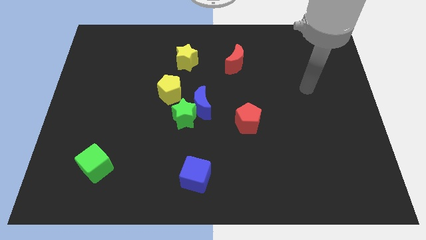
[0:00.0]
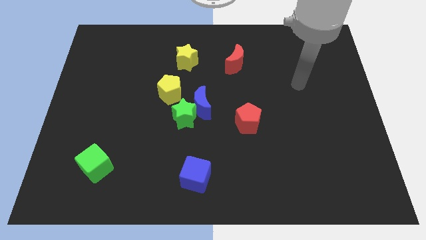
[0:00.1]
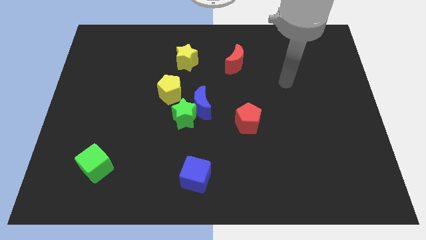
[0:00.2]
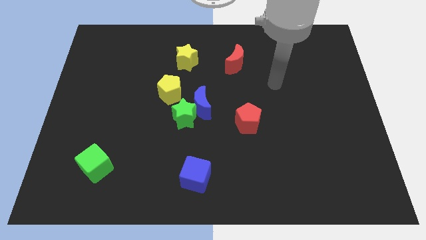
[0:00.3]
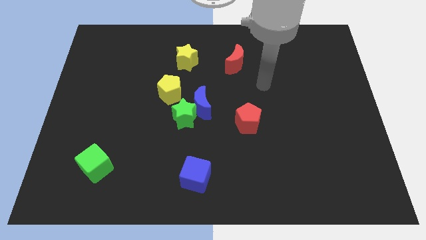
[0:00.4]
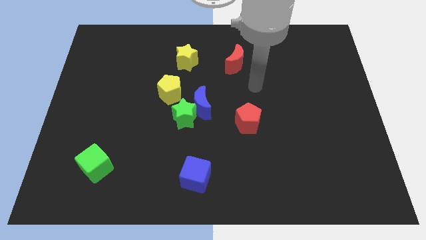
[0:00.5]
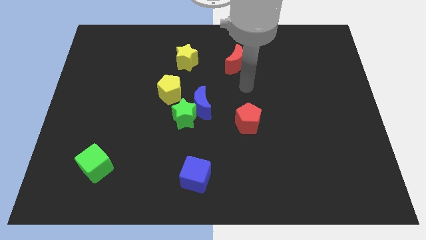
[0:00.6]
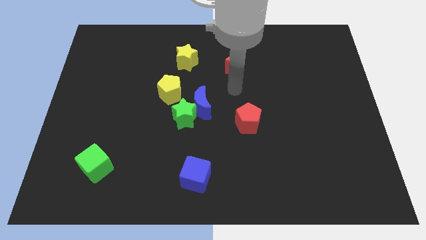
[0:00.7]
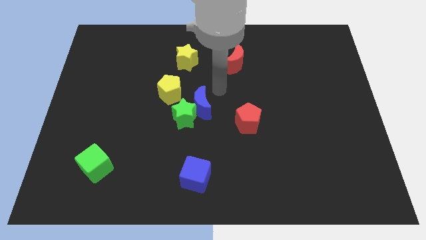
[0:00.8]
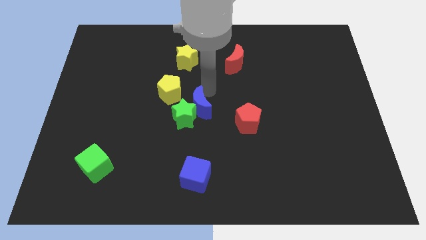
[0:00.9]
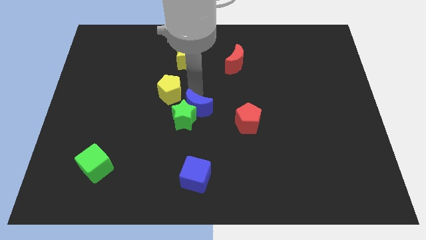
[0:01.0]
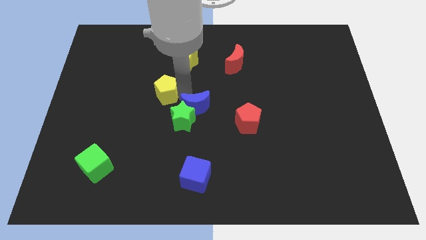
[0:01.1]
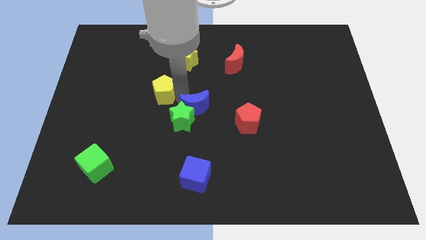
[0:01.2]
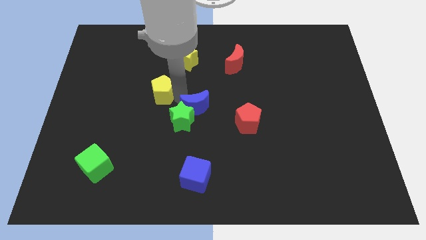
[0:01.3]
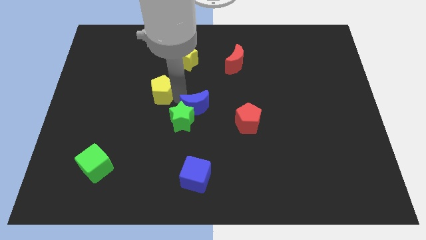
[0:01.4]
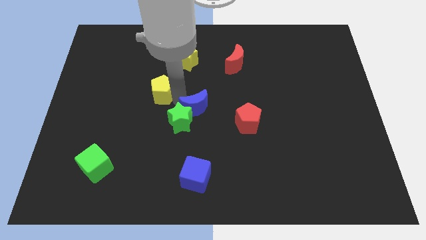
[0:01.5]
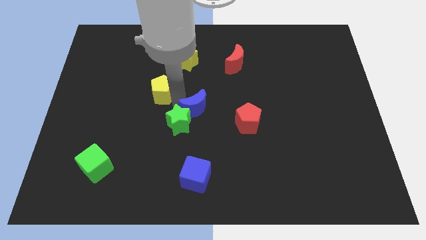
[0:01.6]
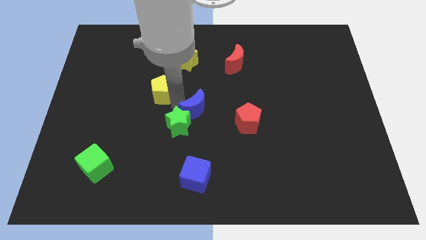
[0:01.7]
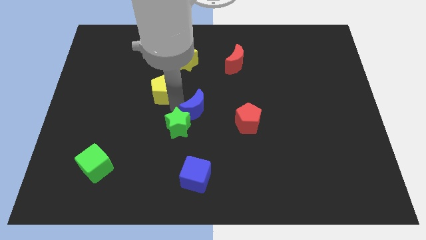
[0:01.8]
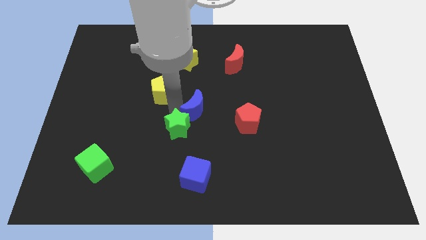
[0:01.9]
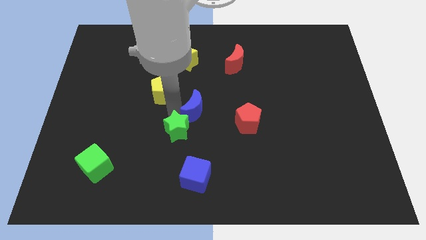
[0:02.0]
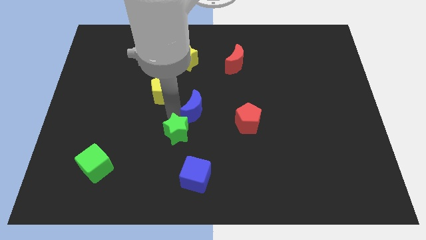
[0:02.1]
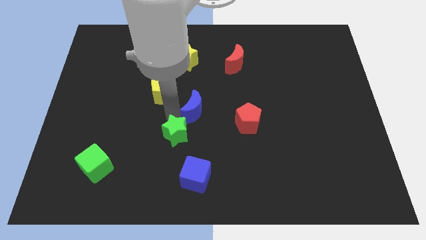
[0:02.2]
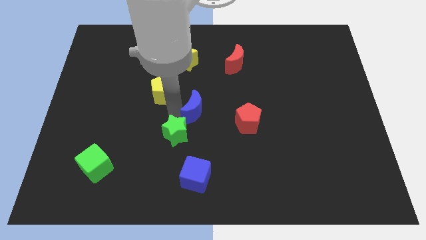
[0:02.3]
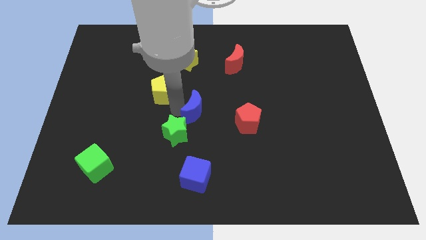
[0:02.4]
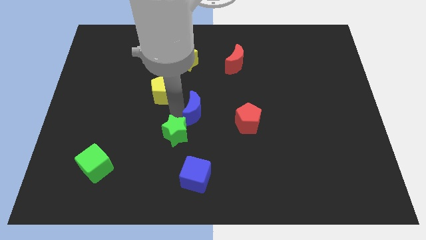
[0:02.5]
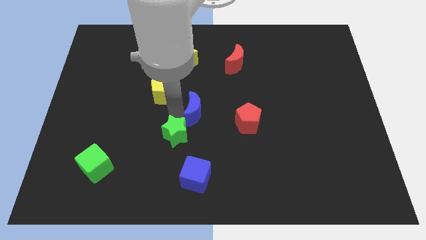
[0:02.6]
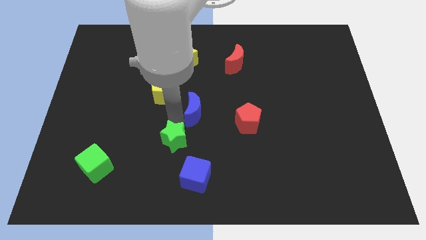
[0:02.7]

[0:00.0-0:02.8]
separate the green star from the blue moon and yellow pentagon

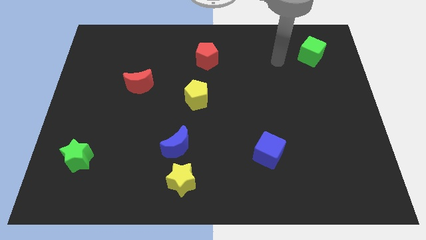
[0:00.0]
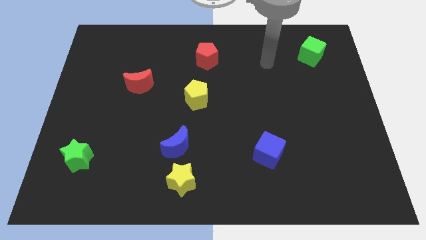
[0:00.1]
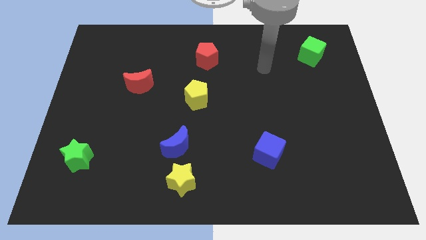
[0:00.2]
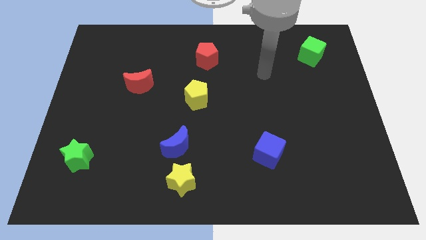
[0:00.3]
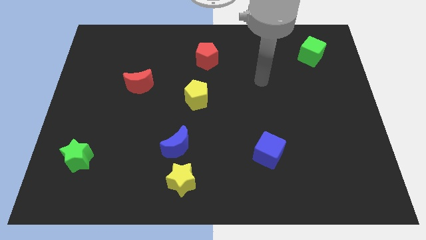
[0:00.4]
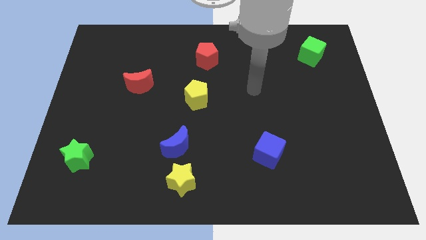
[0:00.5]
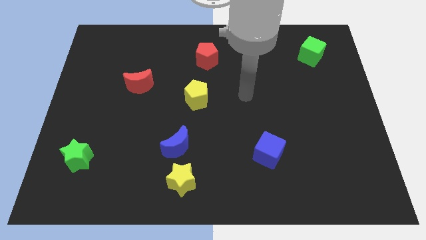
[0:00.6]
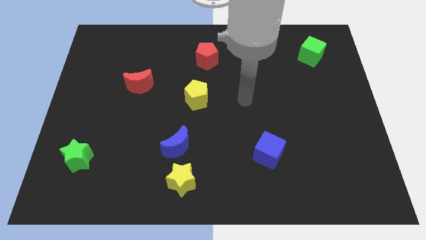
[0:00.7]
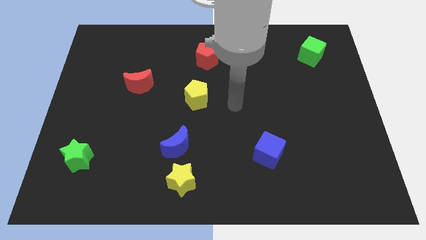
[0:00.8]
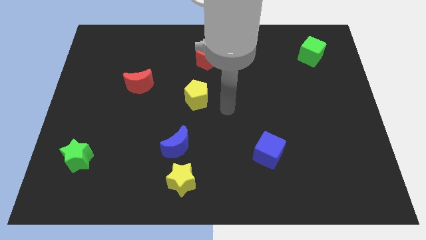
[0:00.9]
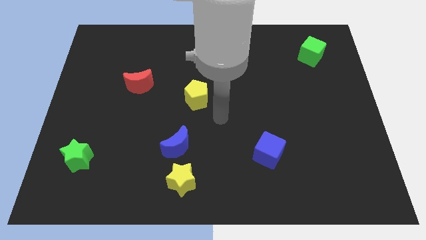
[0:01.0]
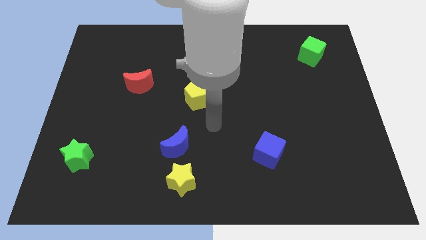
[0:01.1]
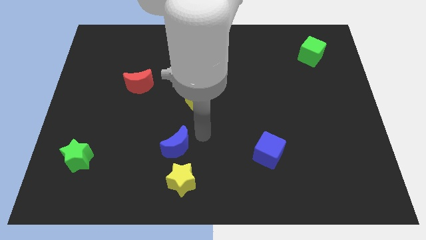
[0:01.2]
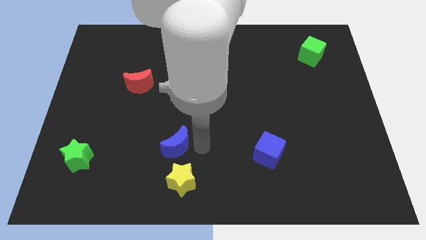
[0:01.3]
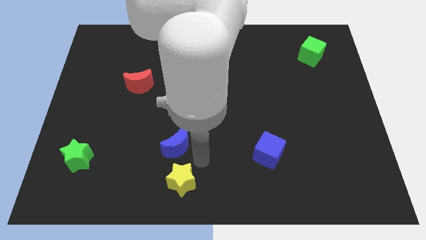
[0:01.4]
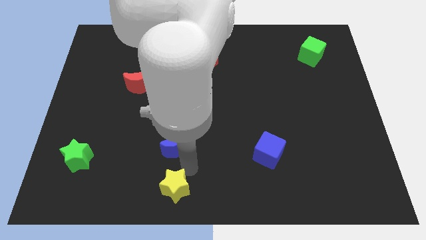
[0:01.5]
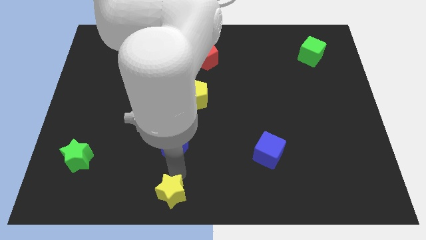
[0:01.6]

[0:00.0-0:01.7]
pull the blue moon apart from the yellow star

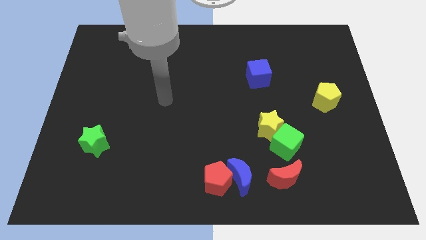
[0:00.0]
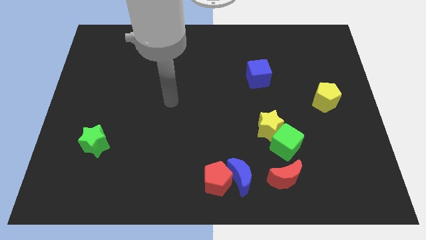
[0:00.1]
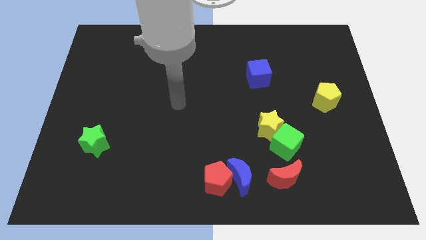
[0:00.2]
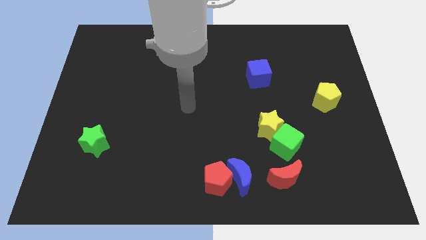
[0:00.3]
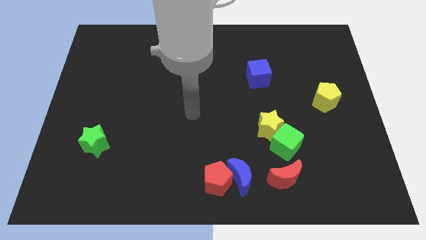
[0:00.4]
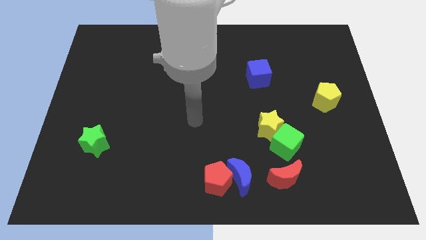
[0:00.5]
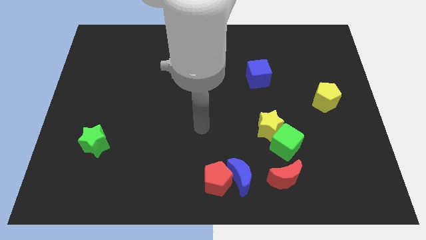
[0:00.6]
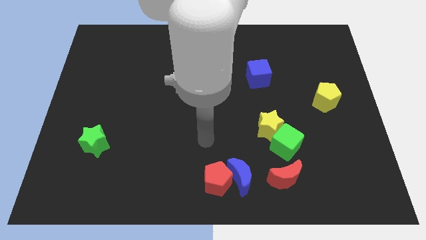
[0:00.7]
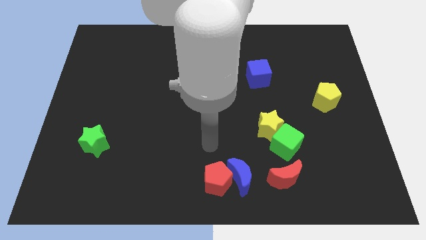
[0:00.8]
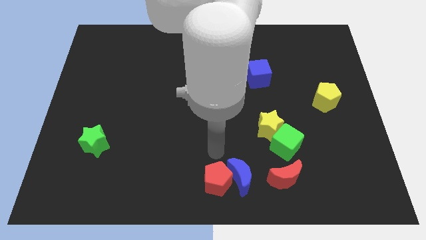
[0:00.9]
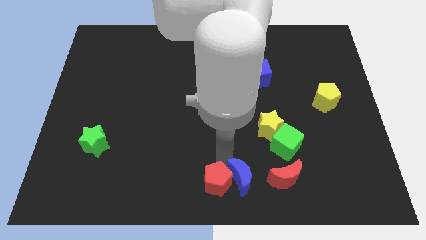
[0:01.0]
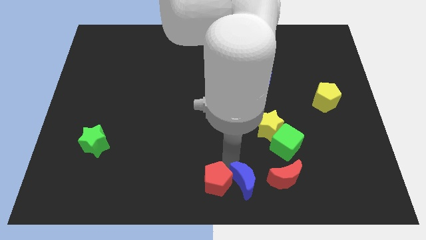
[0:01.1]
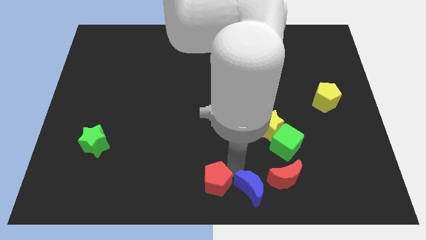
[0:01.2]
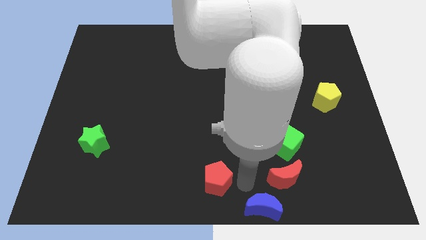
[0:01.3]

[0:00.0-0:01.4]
separate the red pentagon from the blue moon

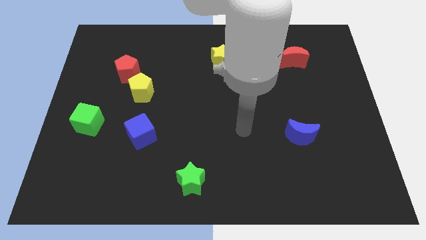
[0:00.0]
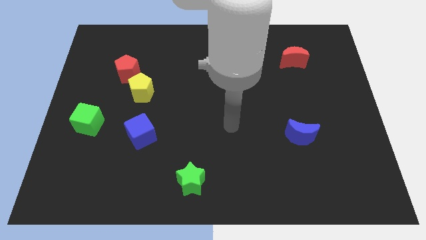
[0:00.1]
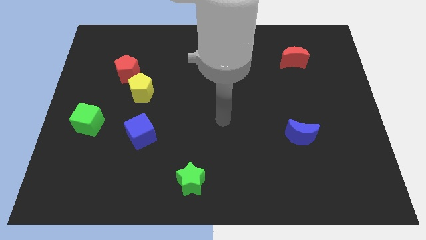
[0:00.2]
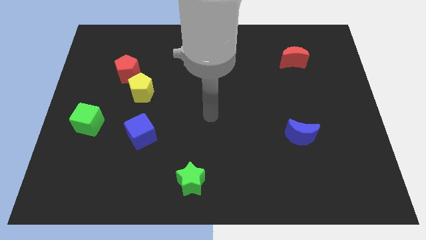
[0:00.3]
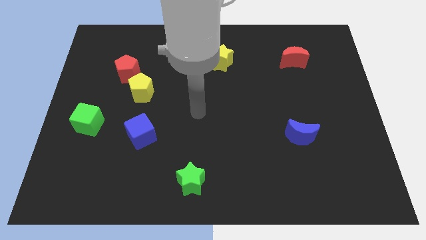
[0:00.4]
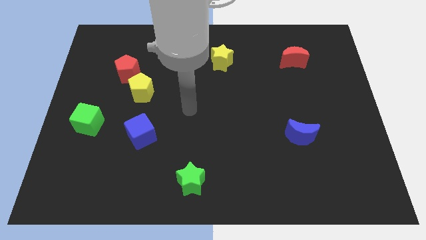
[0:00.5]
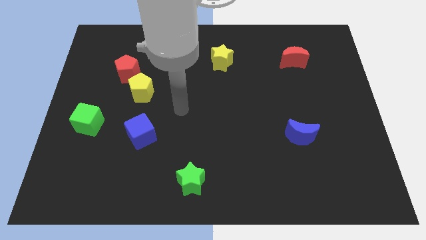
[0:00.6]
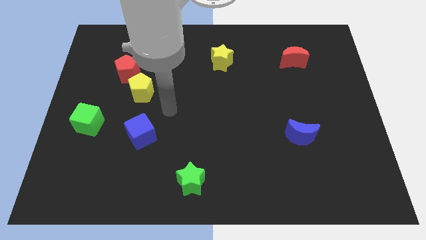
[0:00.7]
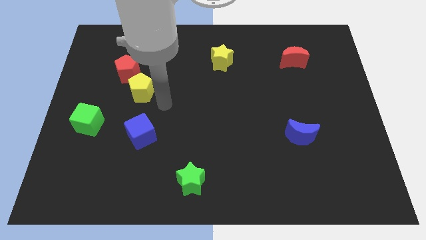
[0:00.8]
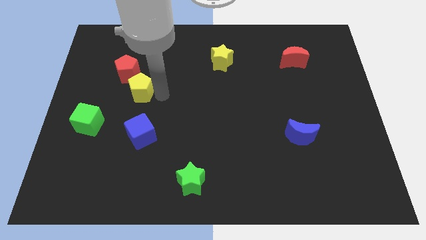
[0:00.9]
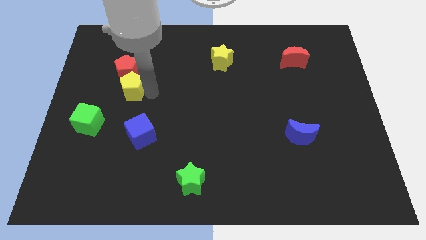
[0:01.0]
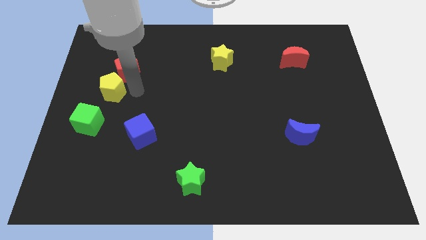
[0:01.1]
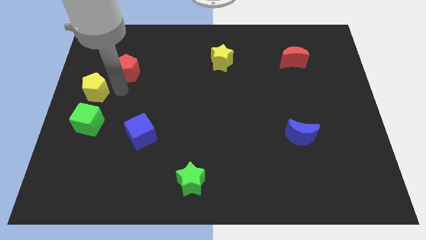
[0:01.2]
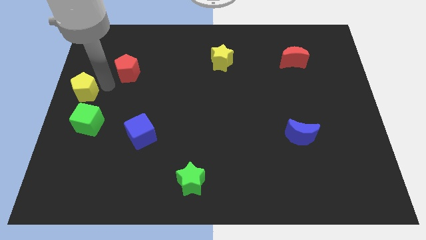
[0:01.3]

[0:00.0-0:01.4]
pull the red pentagon apart from the yellow pentagon

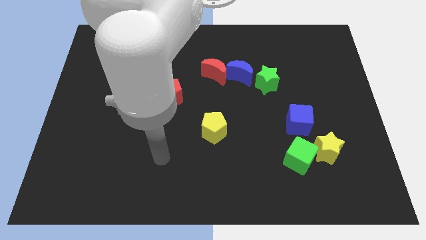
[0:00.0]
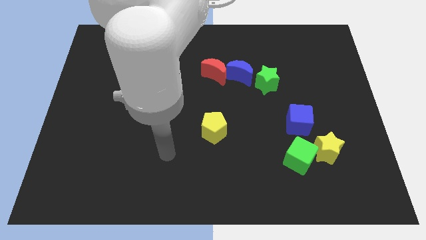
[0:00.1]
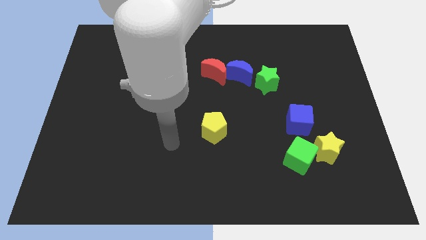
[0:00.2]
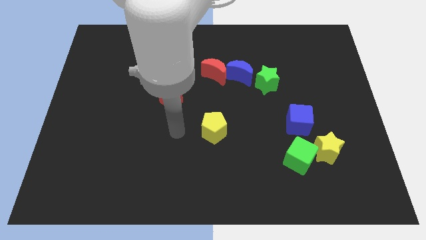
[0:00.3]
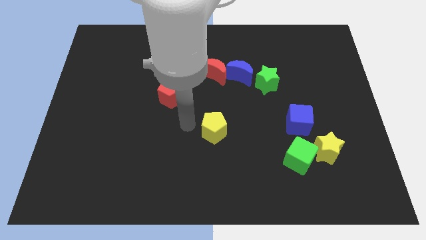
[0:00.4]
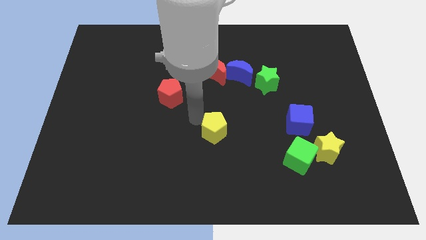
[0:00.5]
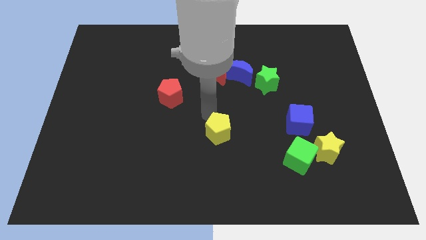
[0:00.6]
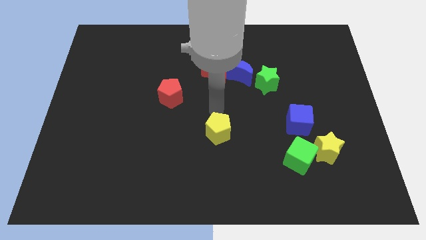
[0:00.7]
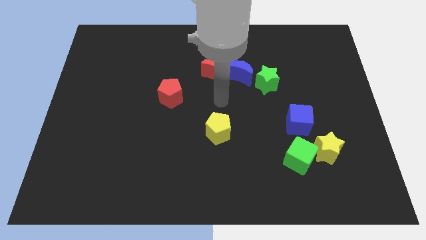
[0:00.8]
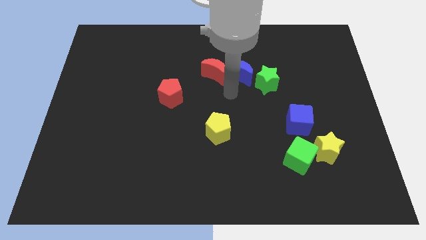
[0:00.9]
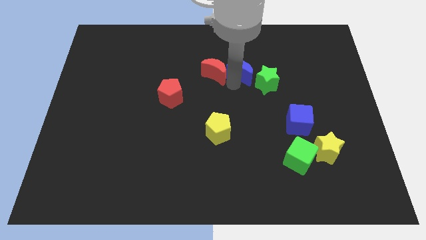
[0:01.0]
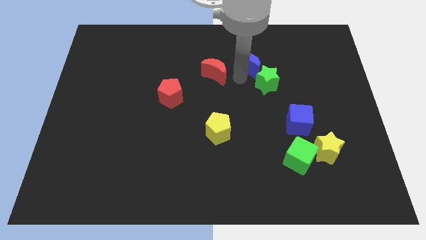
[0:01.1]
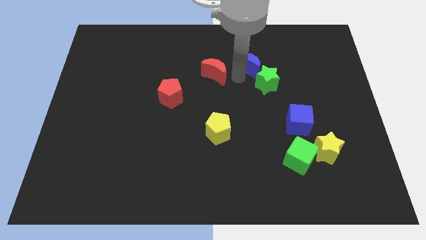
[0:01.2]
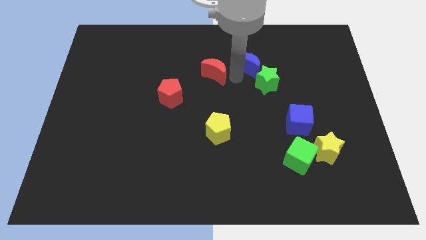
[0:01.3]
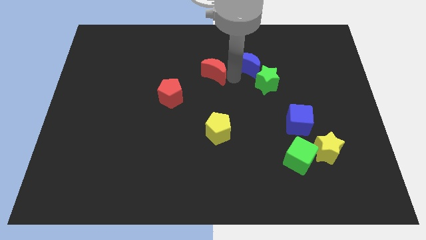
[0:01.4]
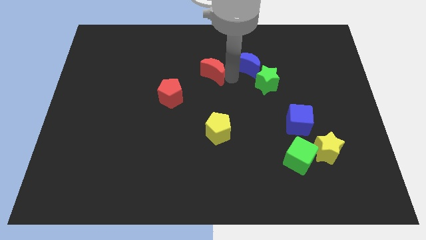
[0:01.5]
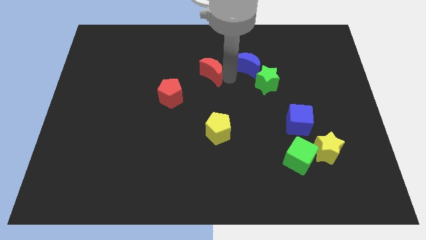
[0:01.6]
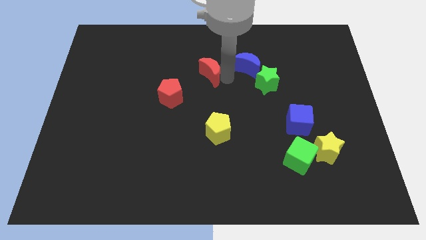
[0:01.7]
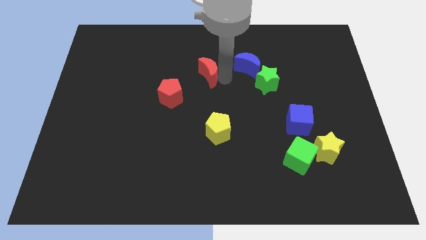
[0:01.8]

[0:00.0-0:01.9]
separate the red moon from the blue moon
